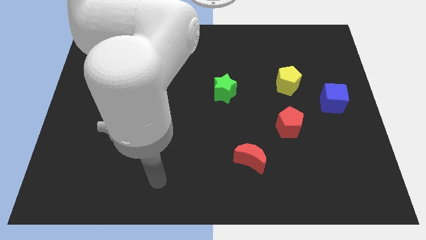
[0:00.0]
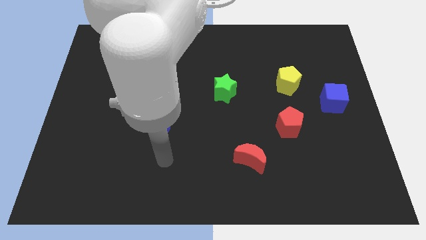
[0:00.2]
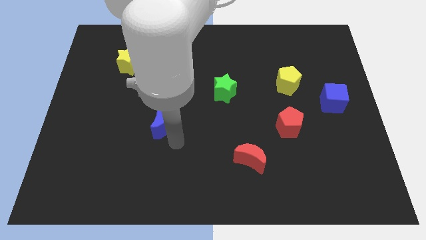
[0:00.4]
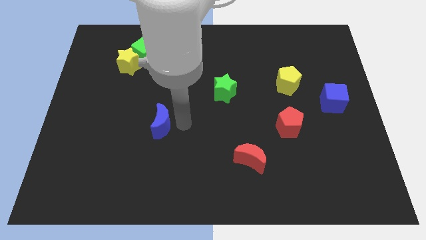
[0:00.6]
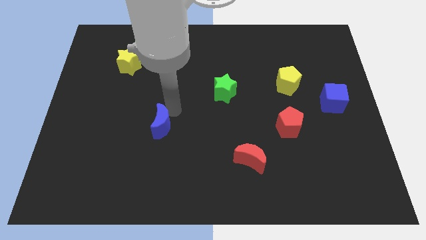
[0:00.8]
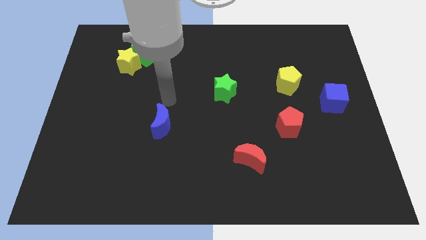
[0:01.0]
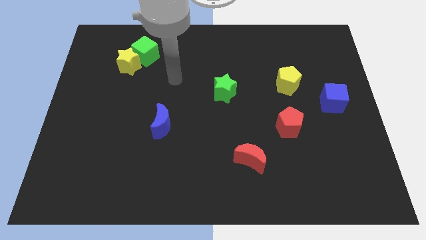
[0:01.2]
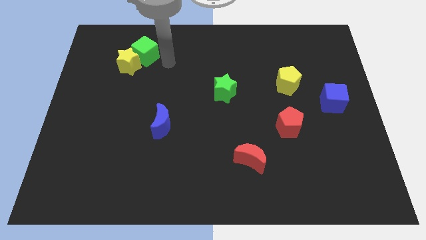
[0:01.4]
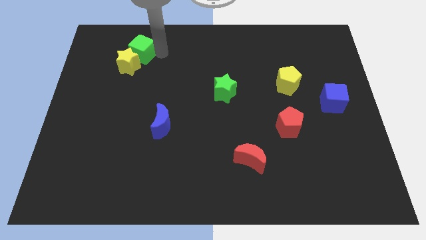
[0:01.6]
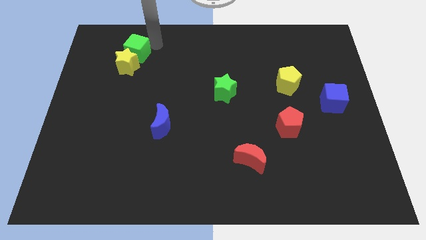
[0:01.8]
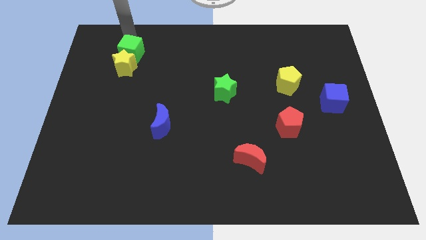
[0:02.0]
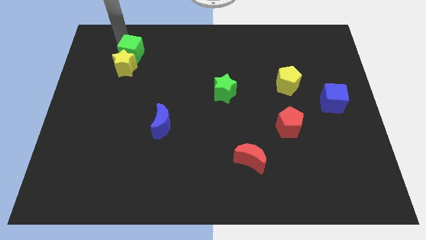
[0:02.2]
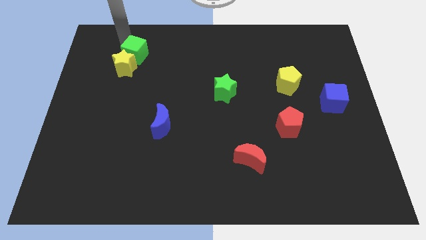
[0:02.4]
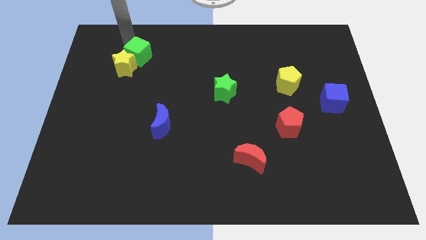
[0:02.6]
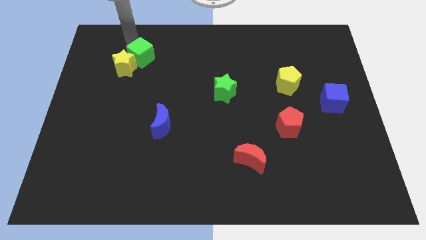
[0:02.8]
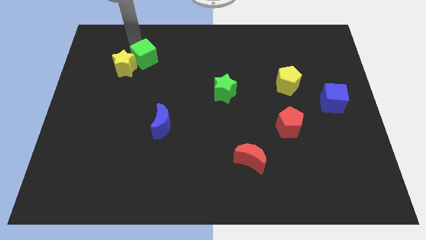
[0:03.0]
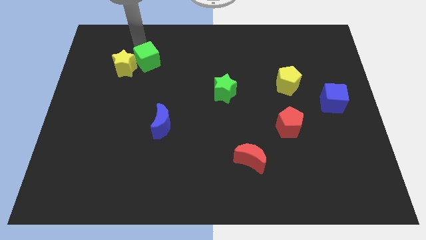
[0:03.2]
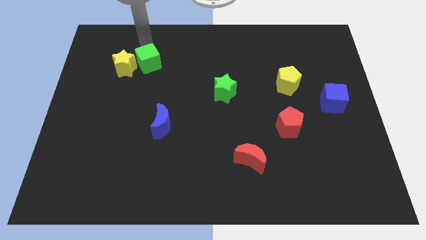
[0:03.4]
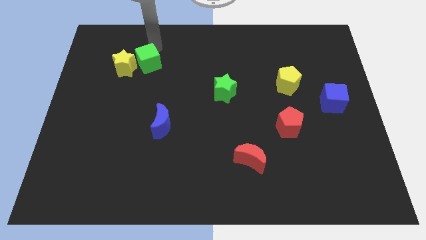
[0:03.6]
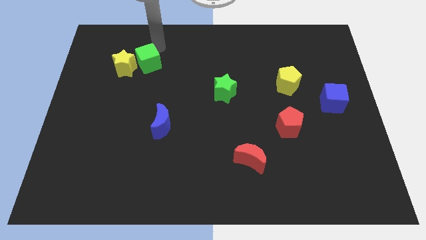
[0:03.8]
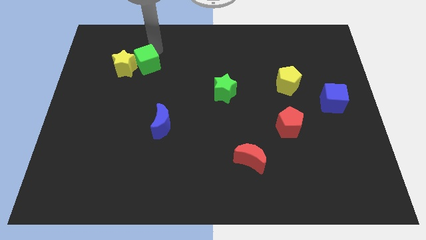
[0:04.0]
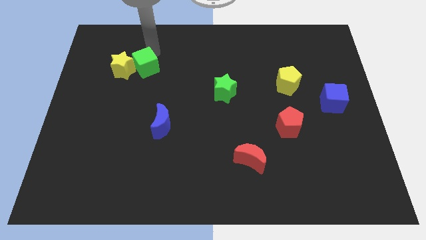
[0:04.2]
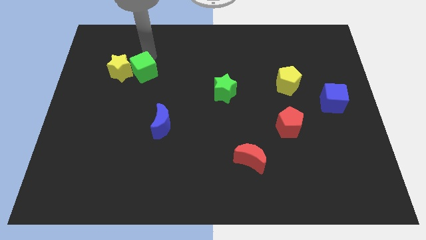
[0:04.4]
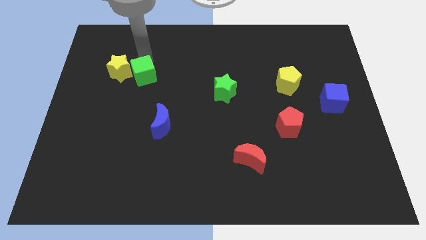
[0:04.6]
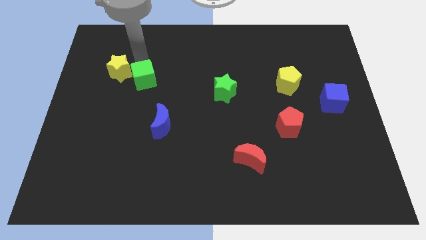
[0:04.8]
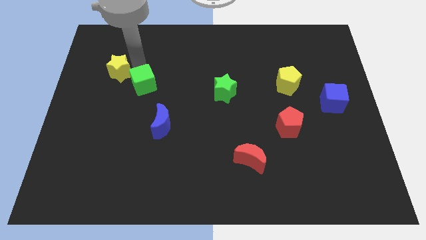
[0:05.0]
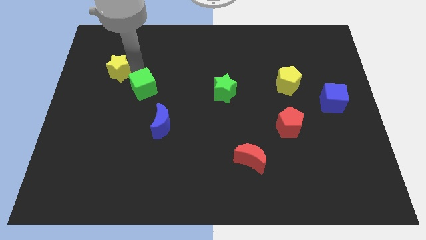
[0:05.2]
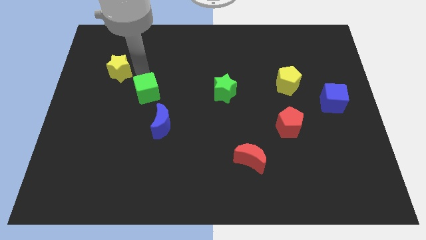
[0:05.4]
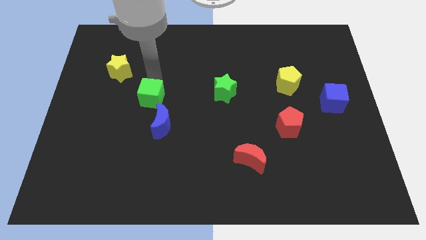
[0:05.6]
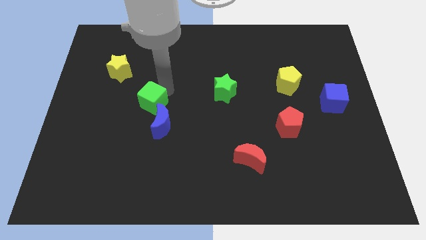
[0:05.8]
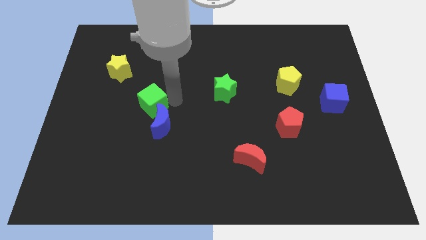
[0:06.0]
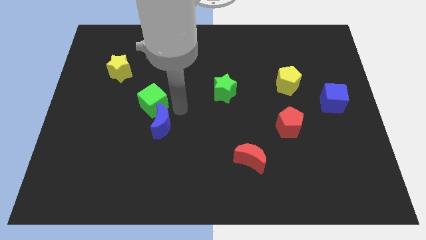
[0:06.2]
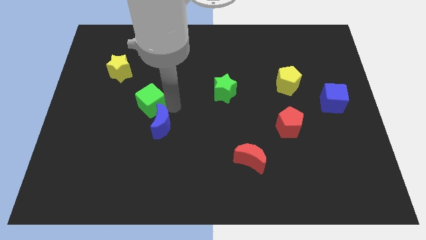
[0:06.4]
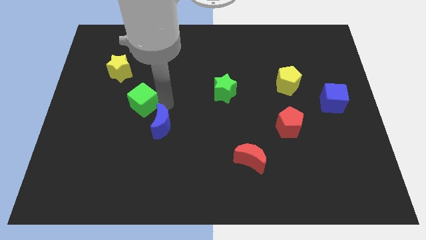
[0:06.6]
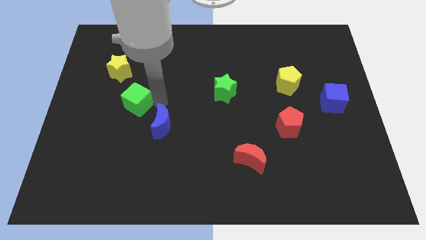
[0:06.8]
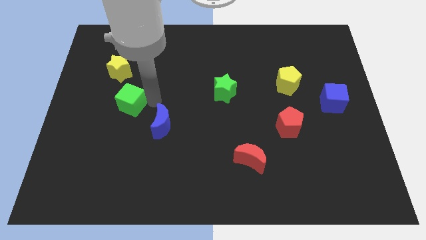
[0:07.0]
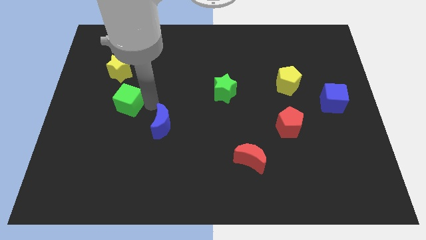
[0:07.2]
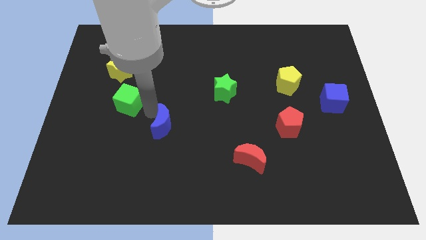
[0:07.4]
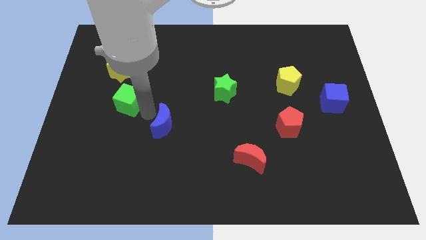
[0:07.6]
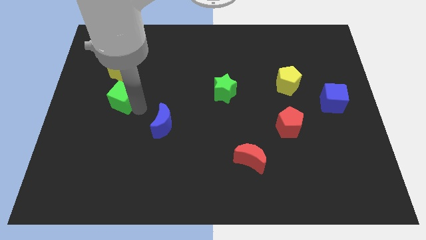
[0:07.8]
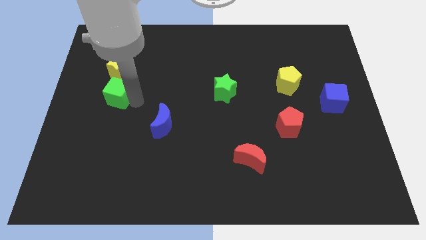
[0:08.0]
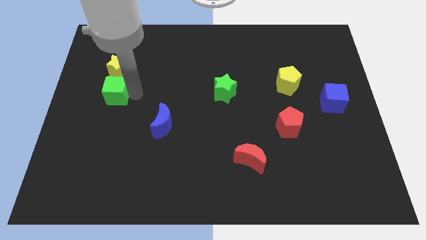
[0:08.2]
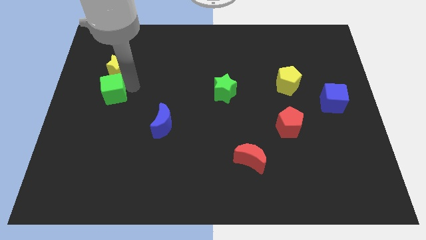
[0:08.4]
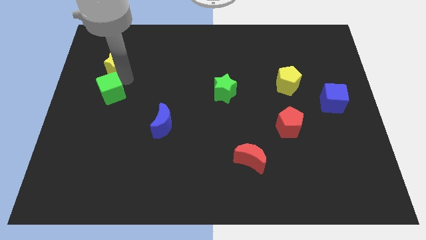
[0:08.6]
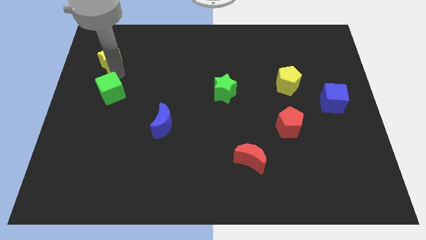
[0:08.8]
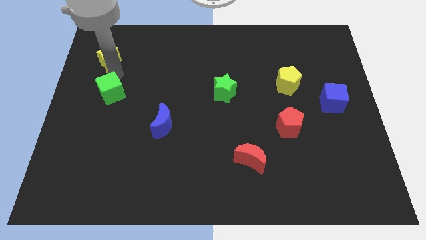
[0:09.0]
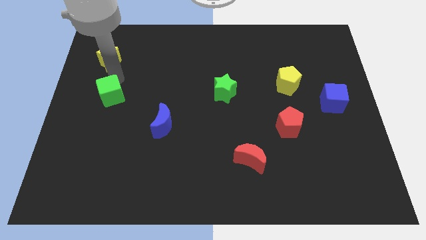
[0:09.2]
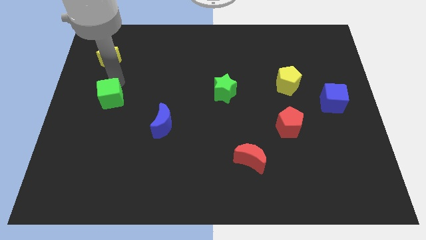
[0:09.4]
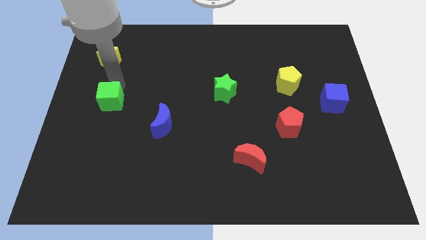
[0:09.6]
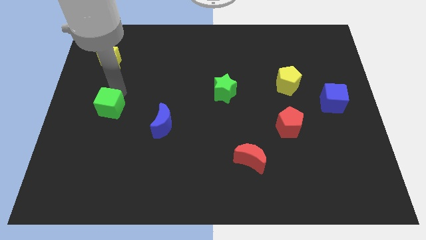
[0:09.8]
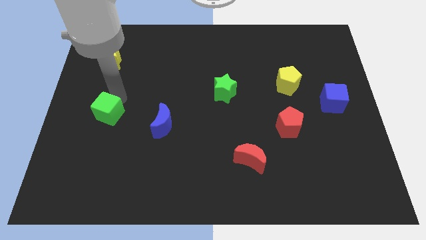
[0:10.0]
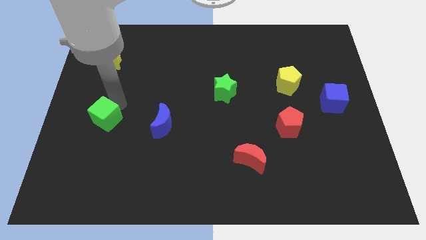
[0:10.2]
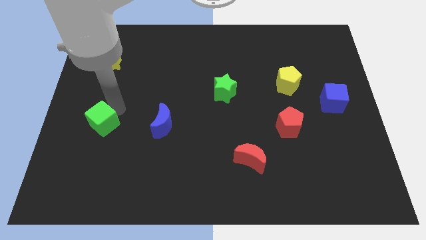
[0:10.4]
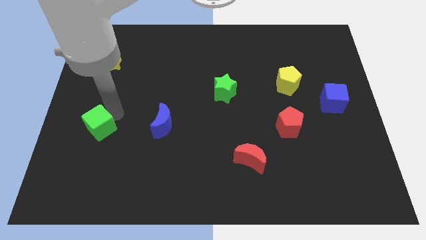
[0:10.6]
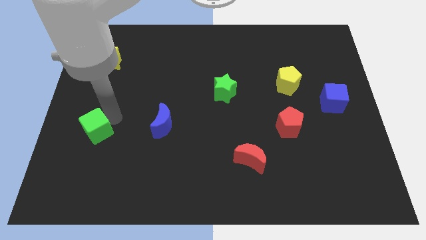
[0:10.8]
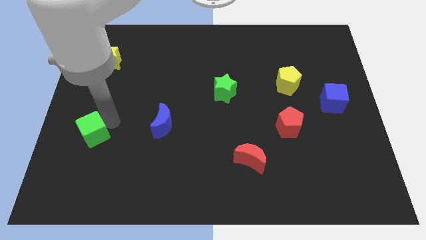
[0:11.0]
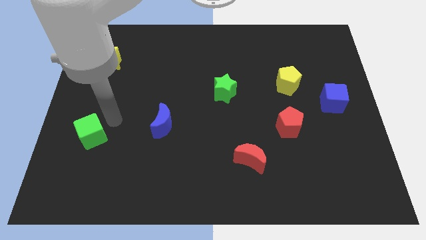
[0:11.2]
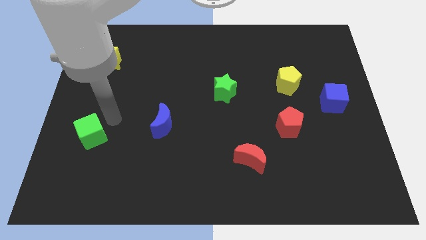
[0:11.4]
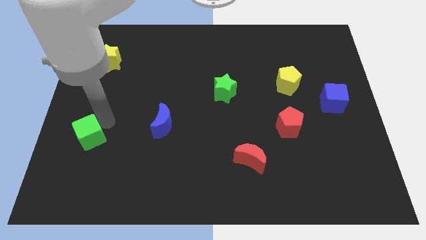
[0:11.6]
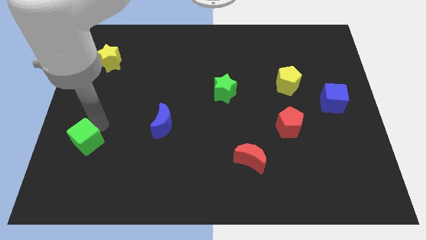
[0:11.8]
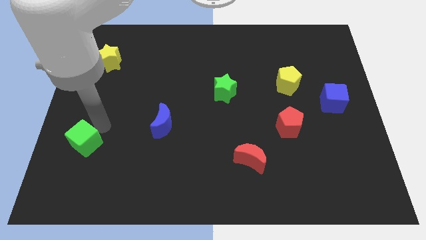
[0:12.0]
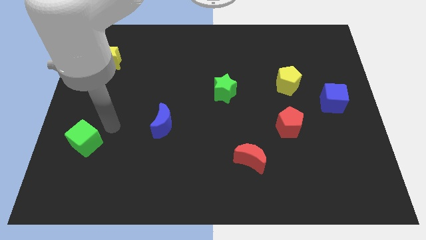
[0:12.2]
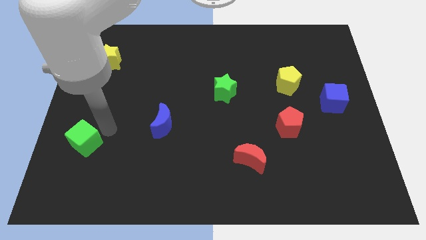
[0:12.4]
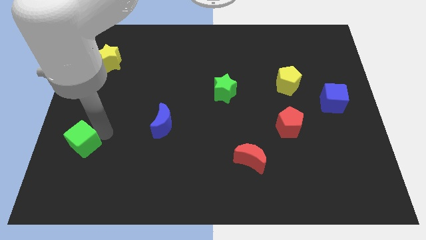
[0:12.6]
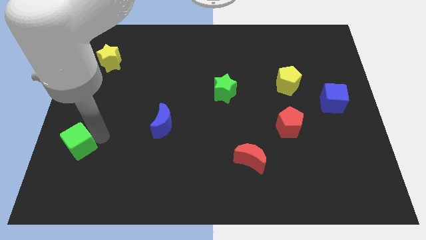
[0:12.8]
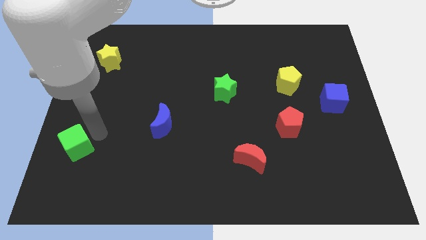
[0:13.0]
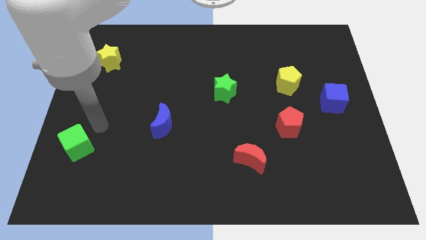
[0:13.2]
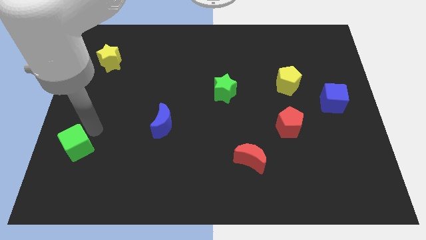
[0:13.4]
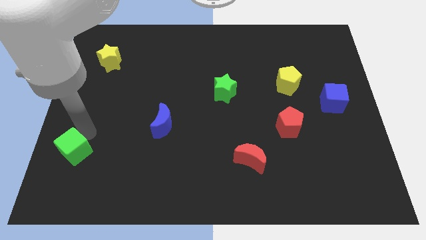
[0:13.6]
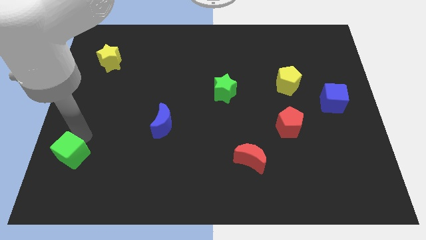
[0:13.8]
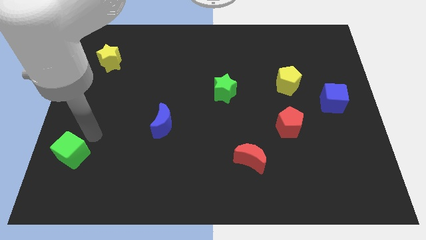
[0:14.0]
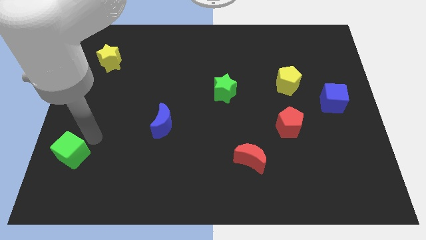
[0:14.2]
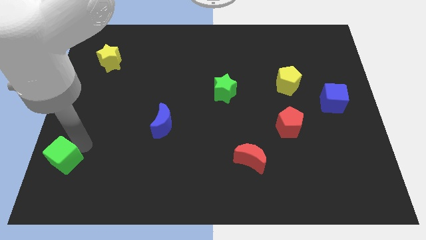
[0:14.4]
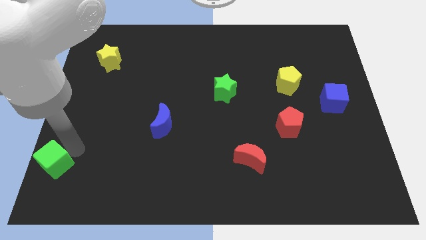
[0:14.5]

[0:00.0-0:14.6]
move the green cube to the lower left corner
